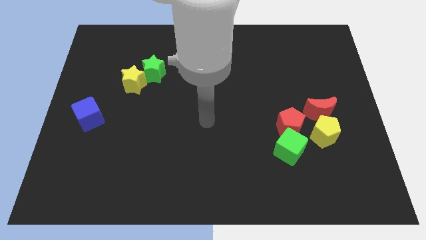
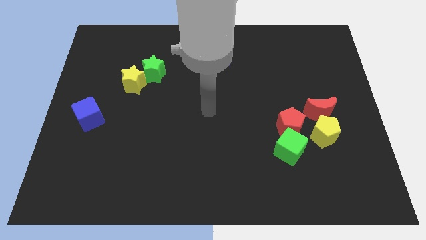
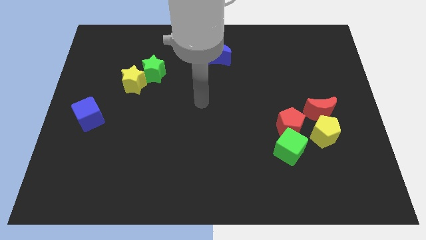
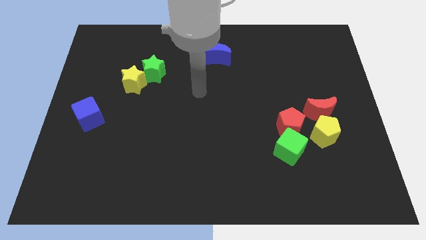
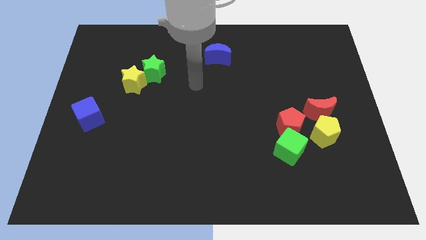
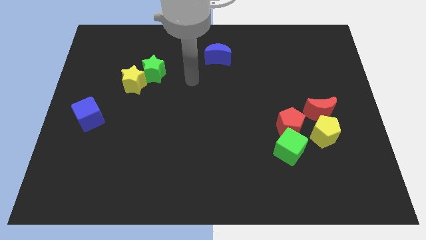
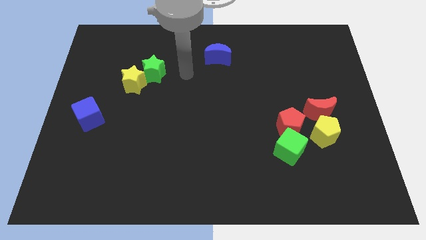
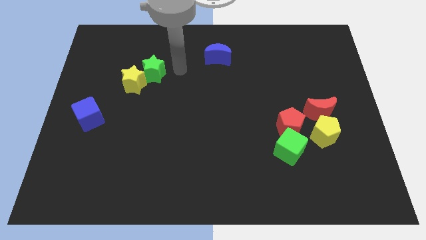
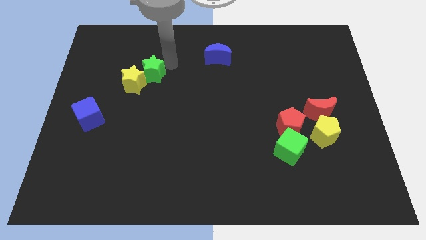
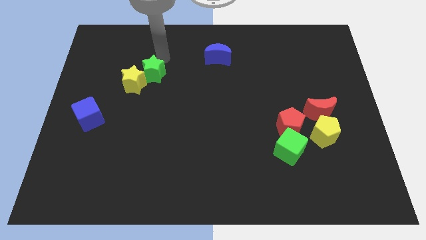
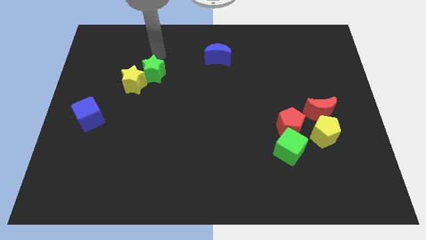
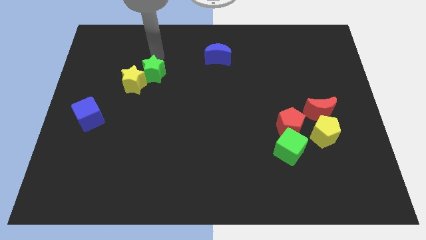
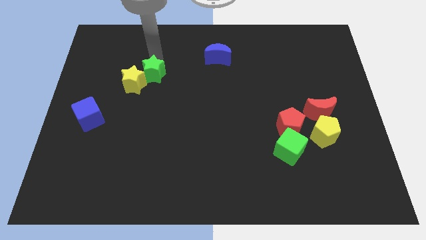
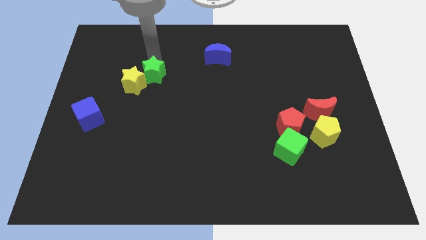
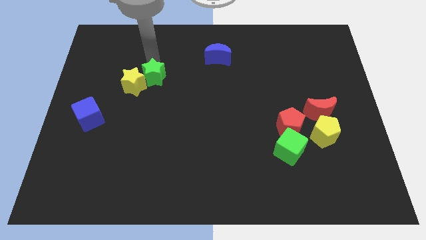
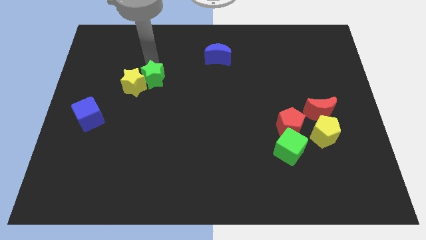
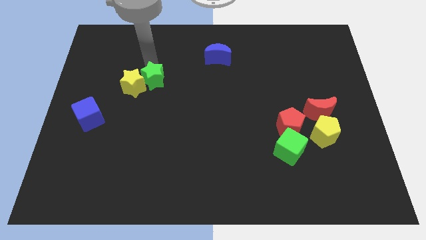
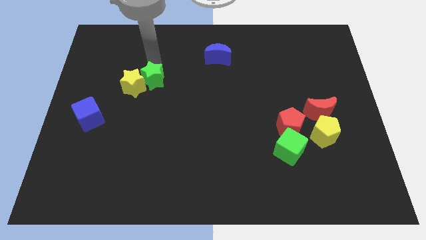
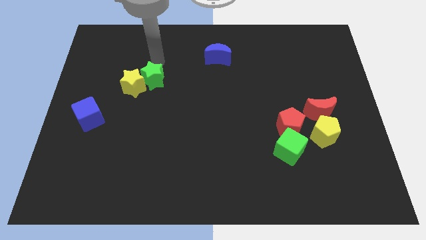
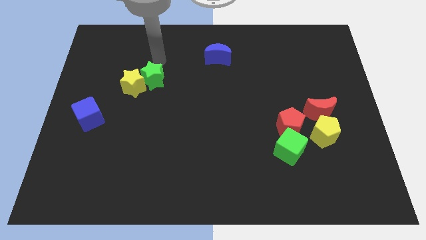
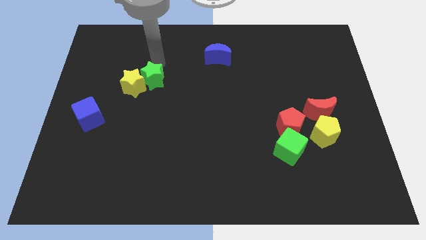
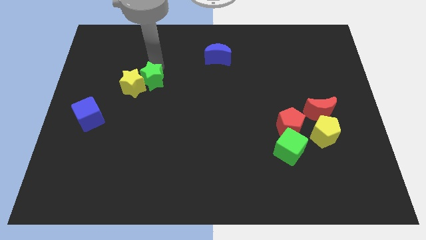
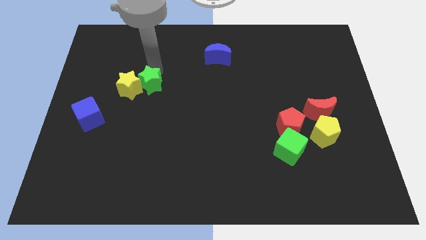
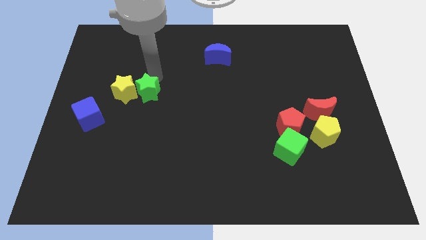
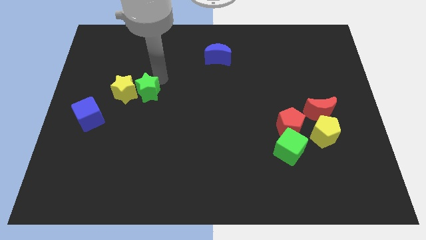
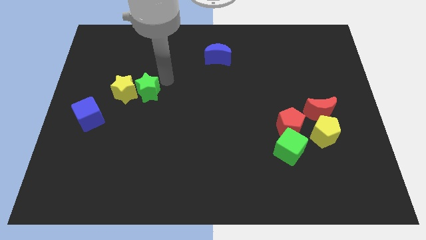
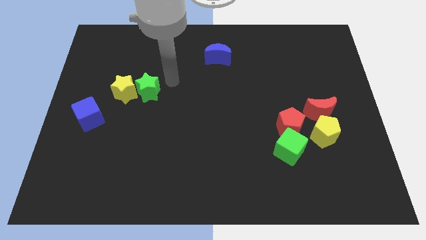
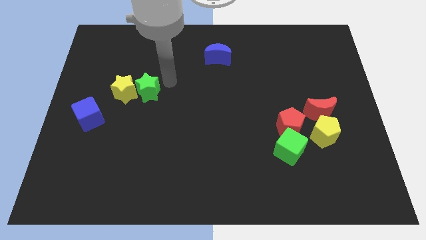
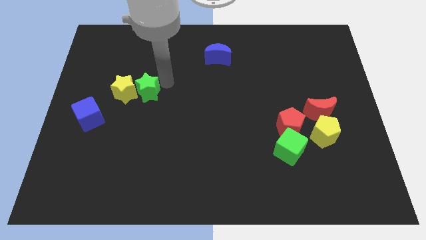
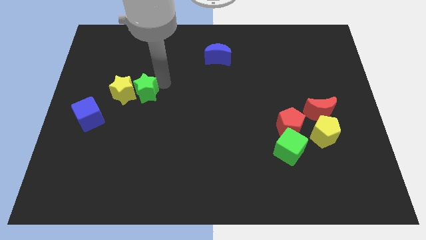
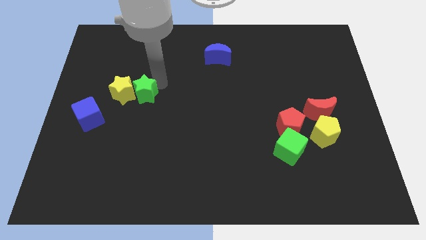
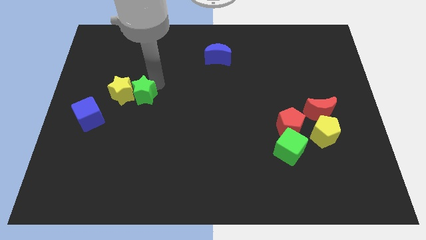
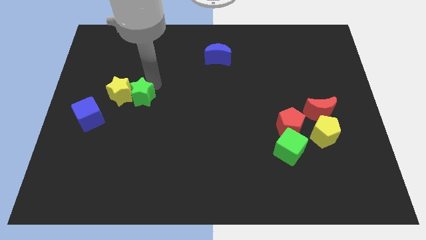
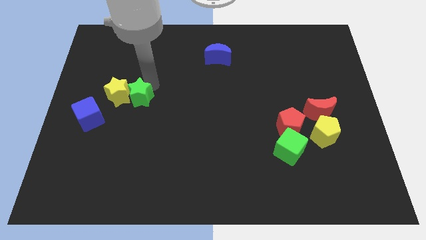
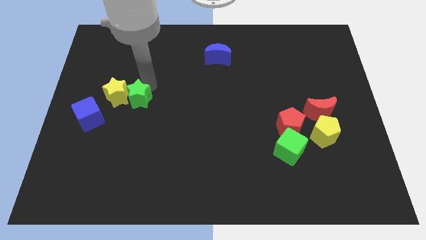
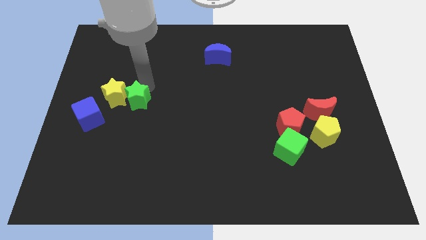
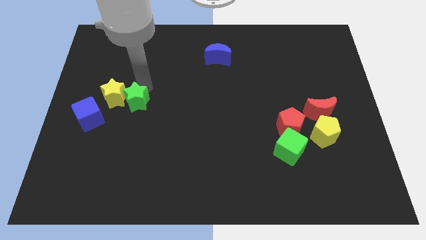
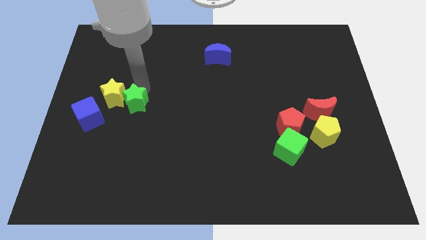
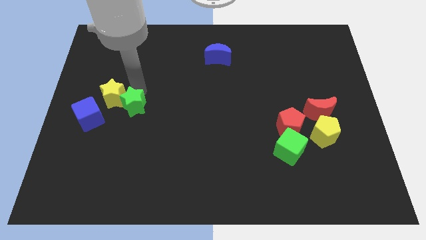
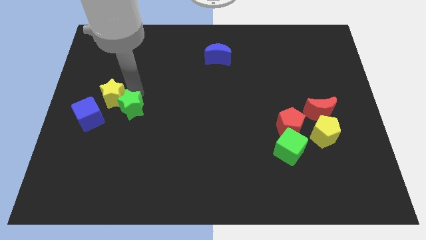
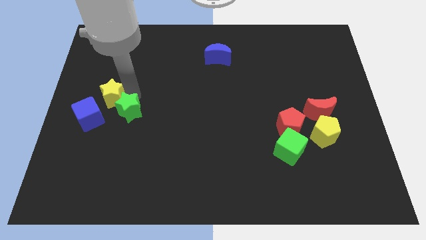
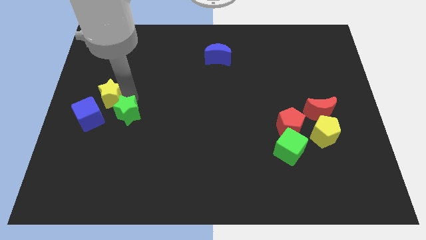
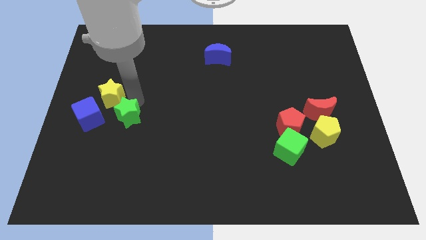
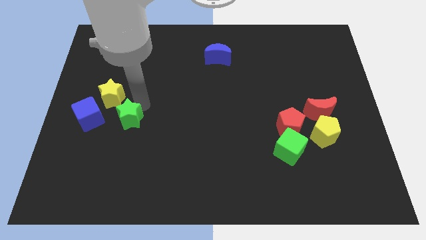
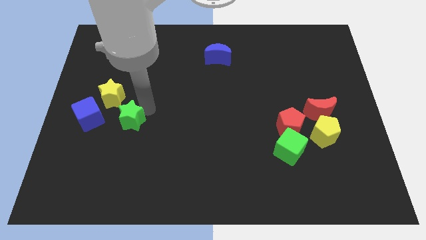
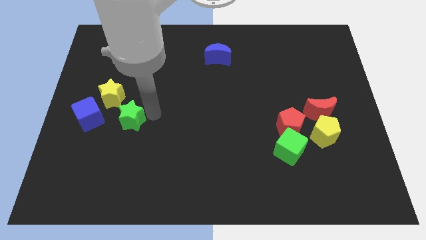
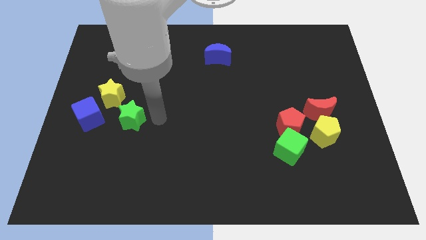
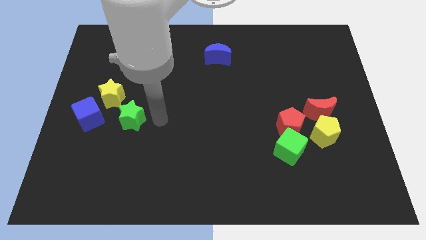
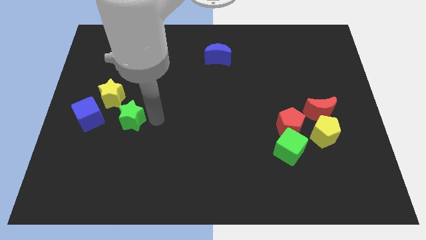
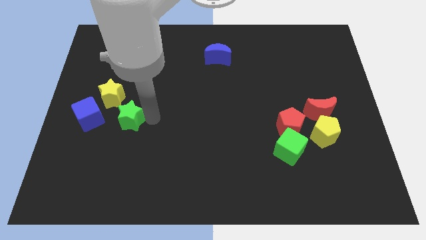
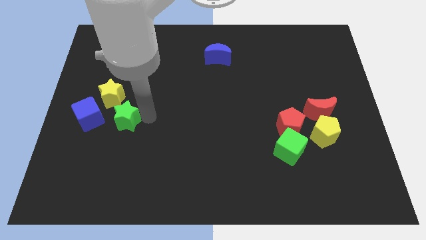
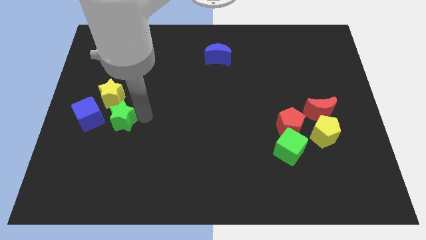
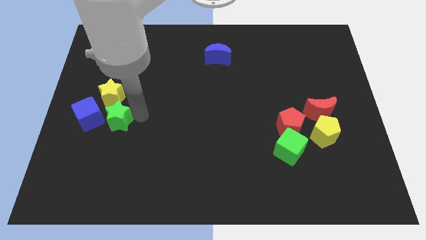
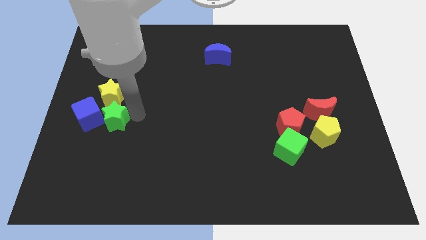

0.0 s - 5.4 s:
move the green star close to the blue cube

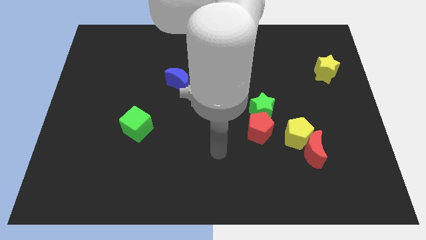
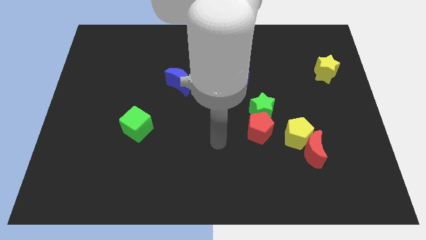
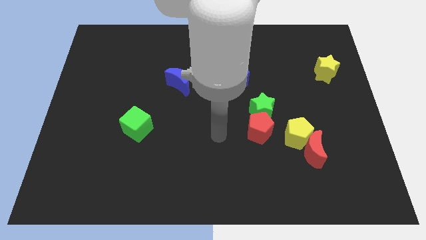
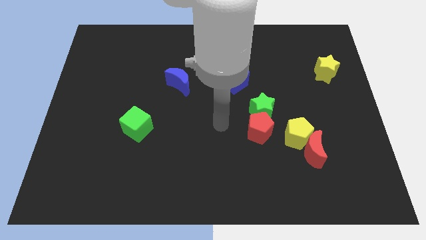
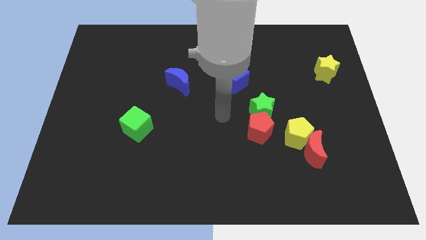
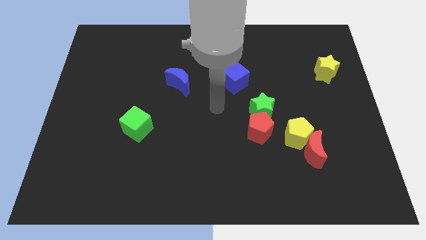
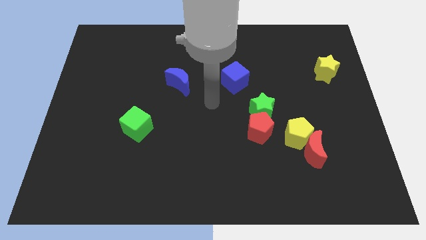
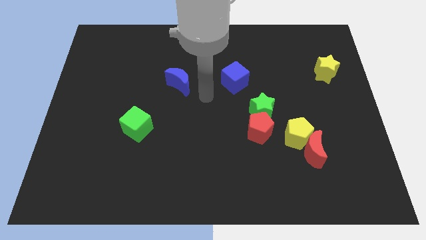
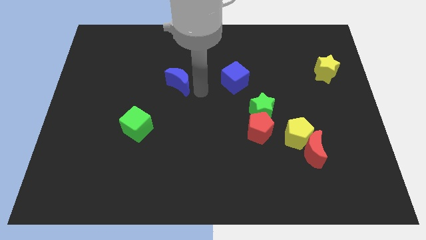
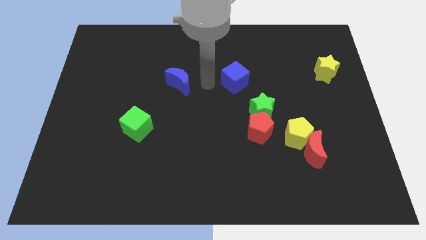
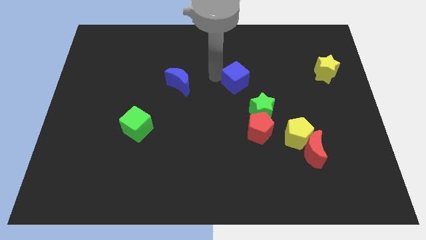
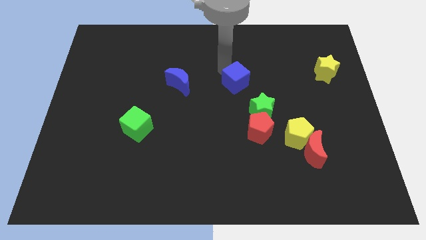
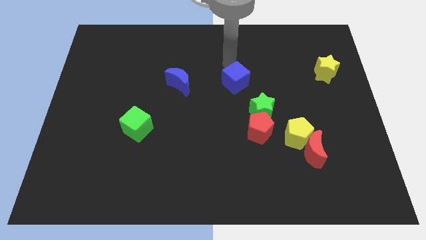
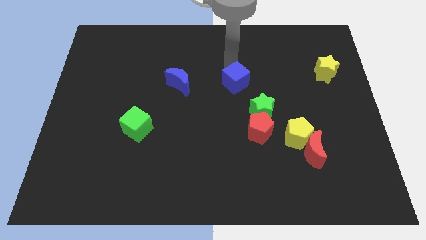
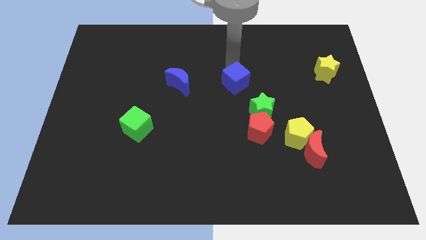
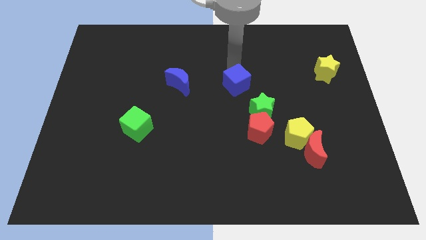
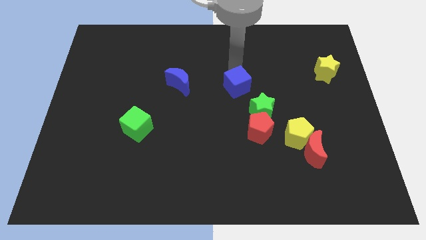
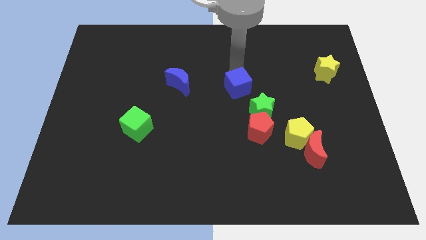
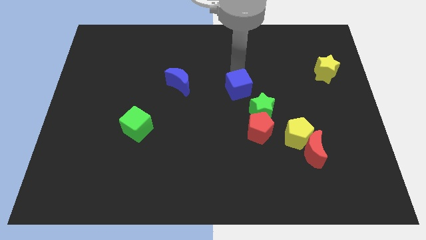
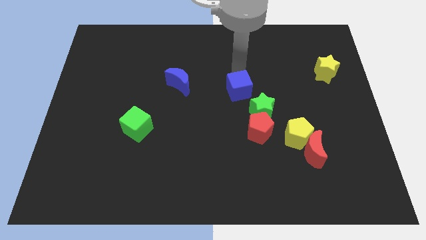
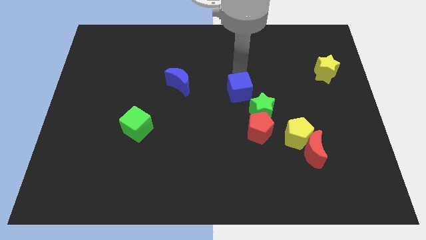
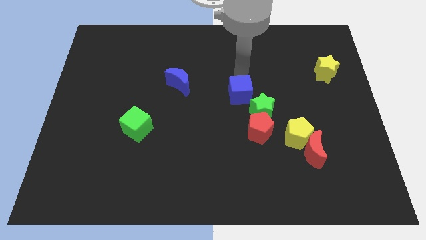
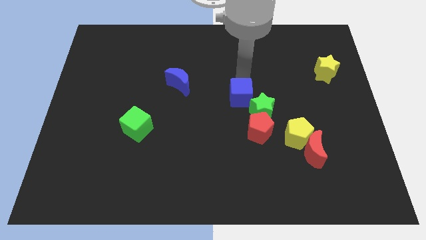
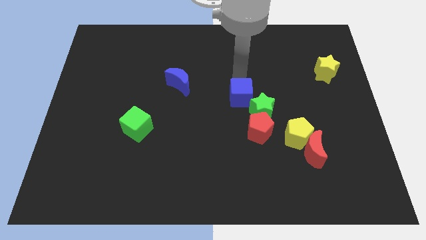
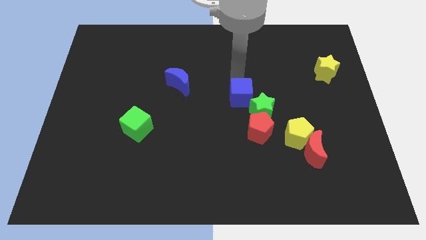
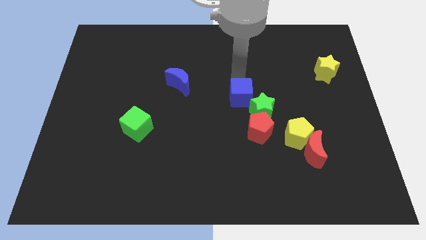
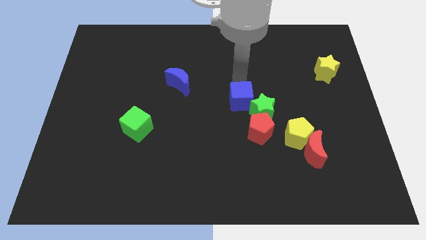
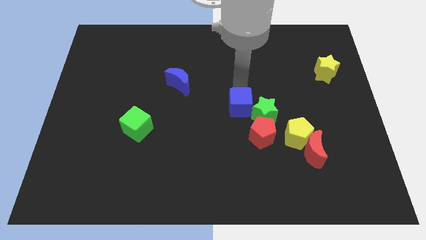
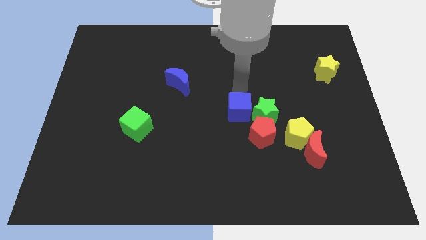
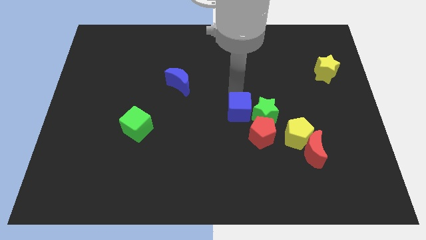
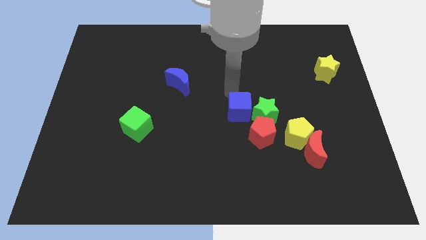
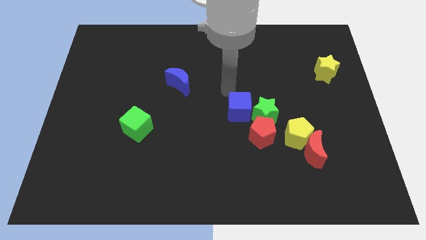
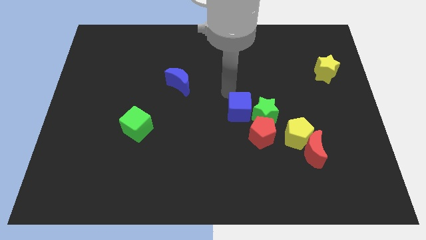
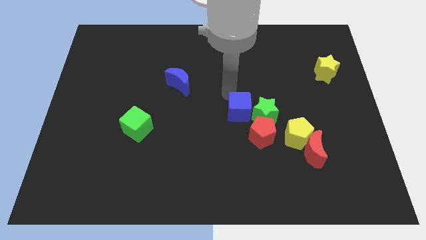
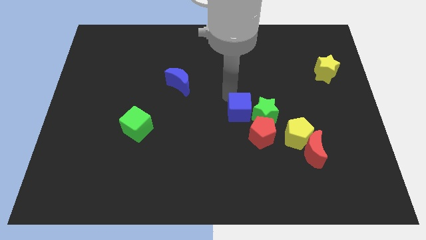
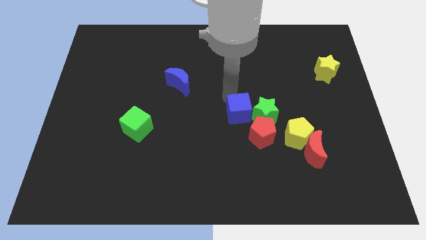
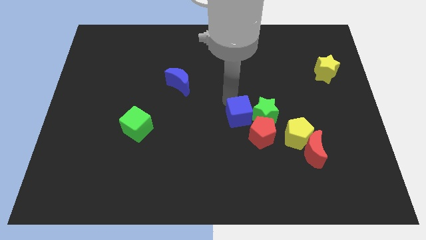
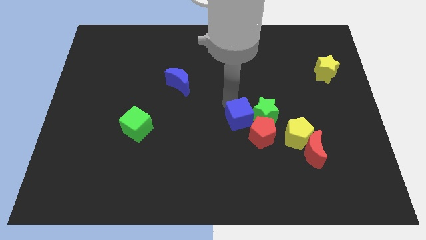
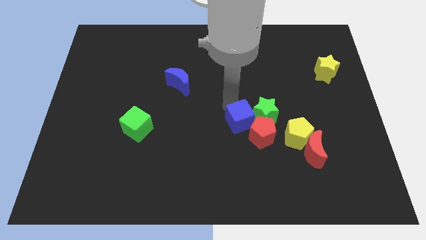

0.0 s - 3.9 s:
put the blue cube to the red pentagon
